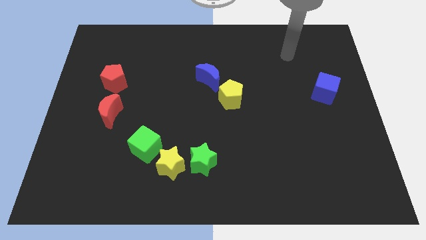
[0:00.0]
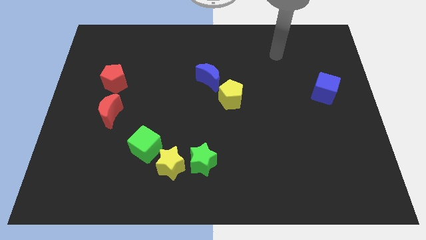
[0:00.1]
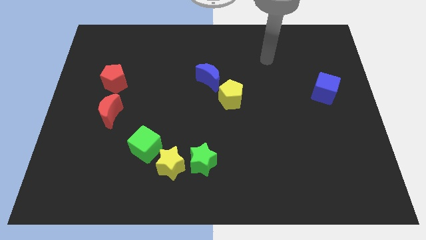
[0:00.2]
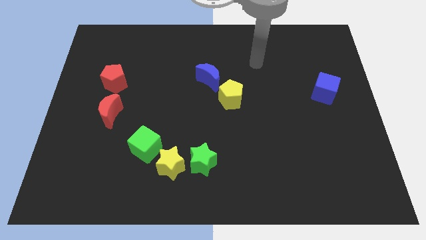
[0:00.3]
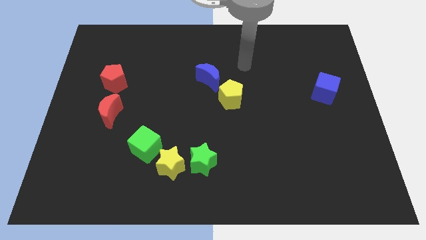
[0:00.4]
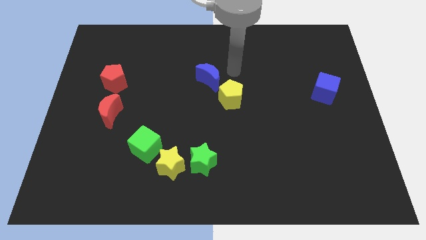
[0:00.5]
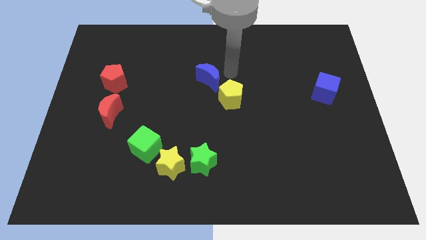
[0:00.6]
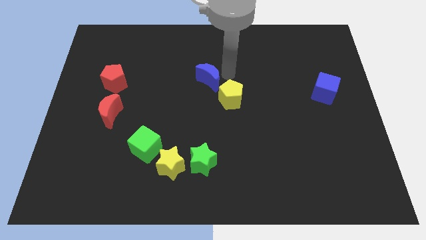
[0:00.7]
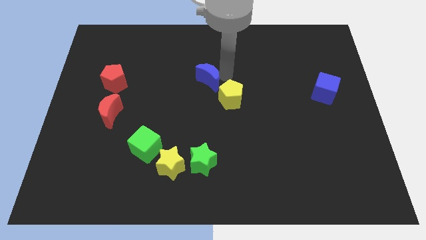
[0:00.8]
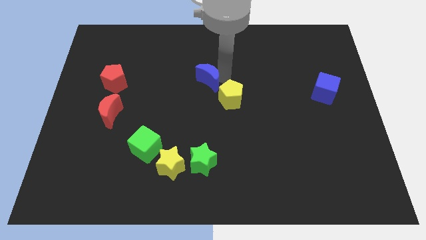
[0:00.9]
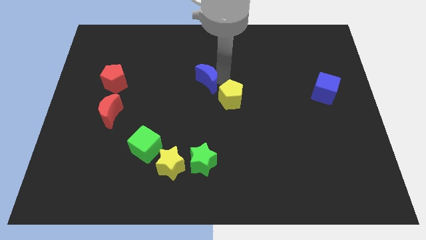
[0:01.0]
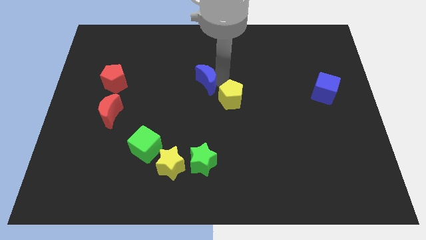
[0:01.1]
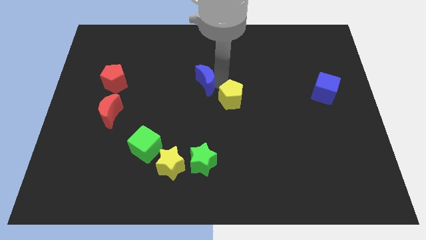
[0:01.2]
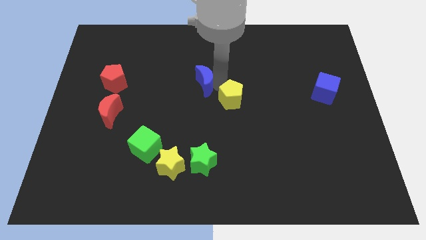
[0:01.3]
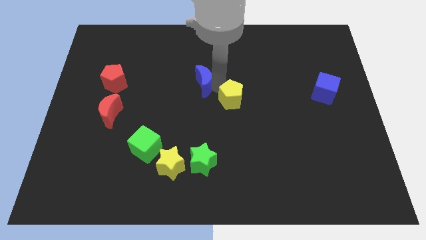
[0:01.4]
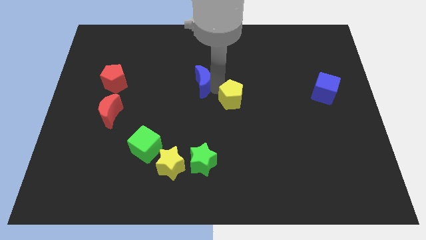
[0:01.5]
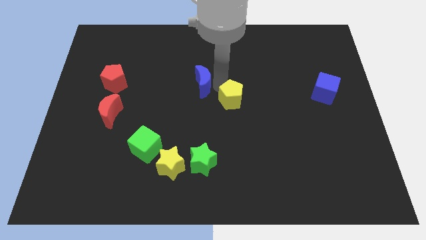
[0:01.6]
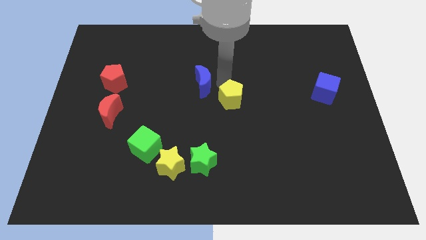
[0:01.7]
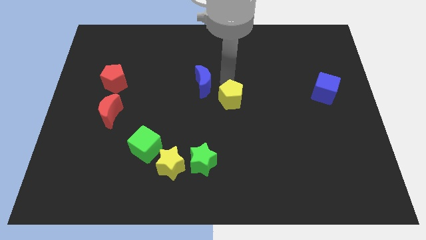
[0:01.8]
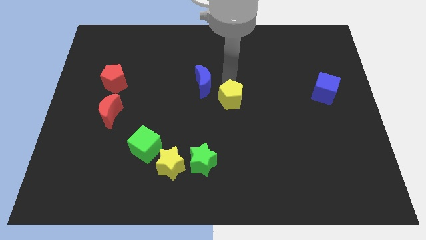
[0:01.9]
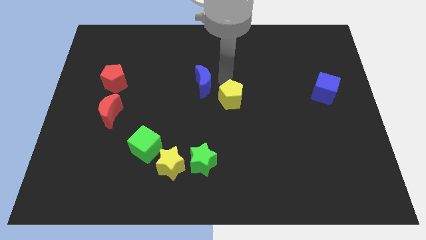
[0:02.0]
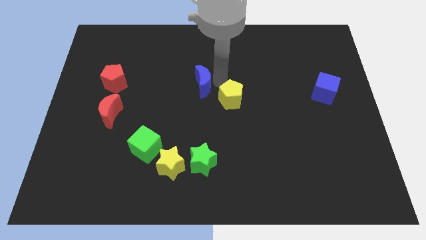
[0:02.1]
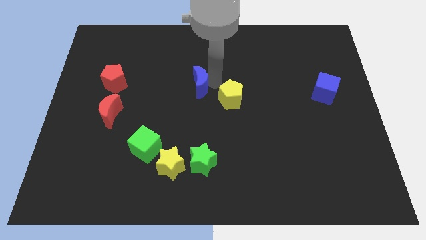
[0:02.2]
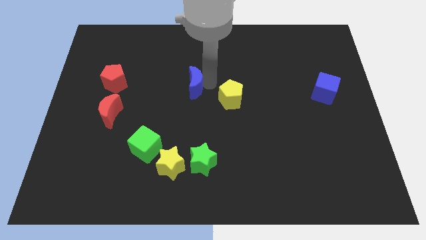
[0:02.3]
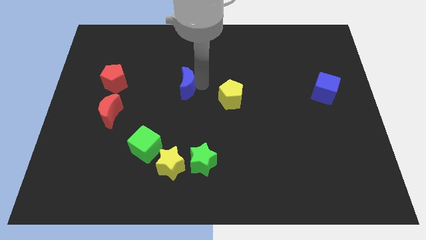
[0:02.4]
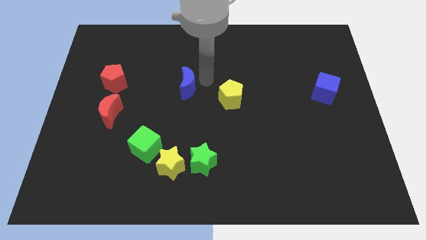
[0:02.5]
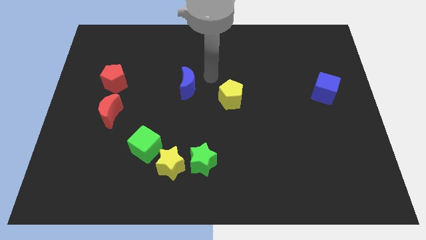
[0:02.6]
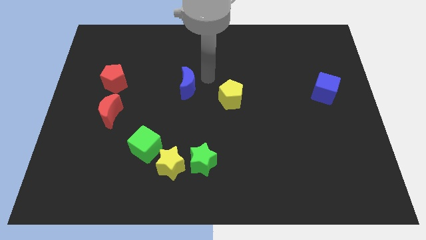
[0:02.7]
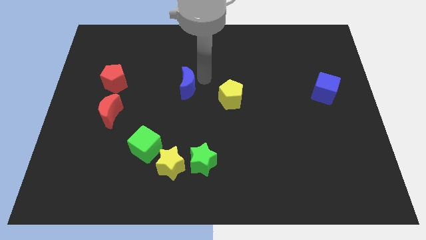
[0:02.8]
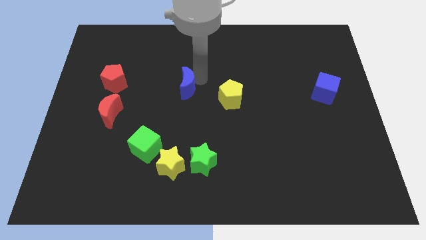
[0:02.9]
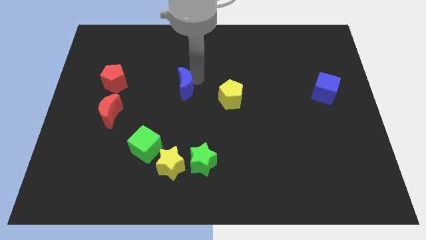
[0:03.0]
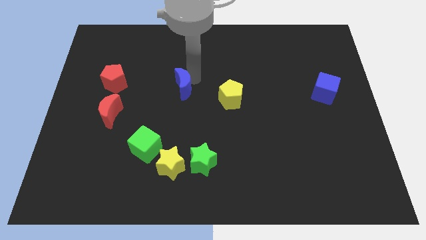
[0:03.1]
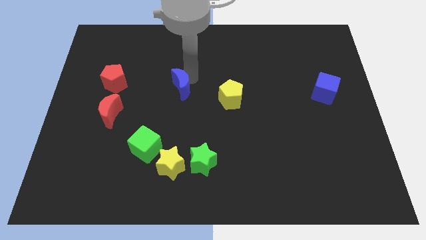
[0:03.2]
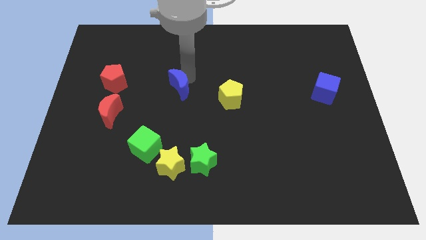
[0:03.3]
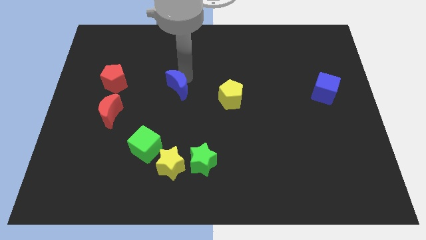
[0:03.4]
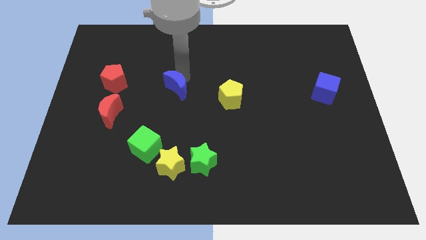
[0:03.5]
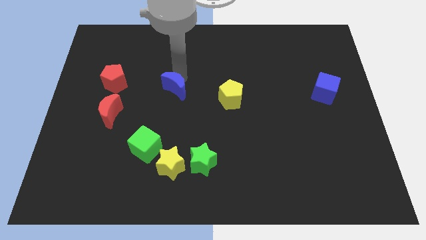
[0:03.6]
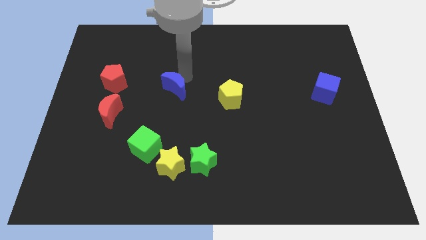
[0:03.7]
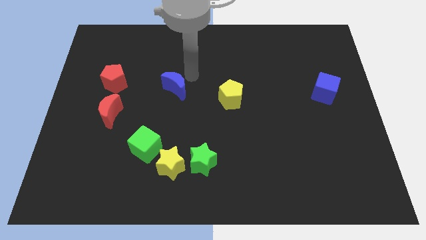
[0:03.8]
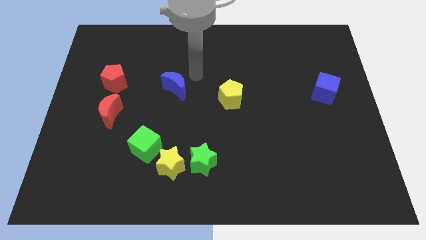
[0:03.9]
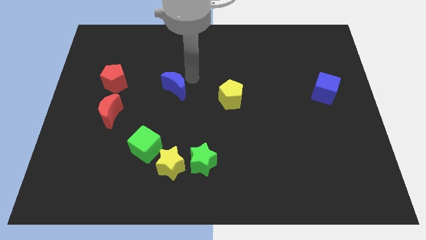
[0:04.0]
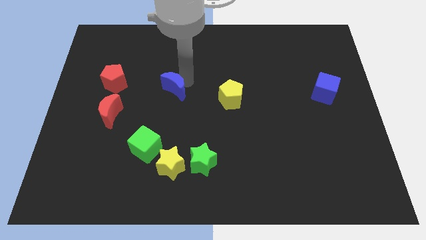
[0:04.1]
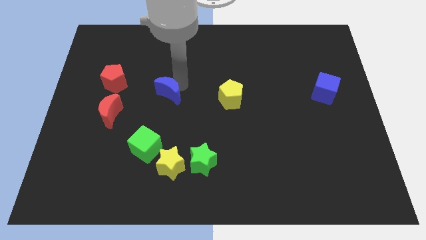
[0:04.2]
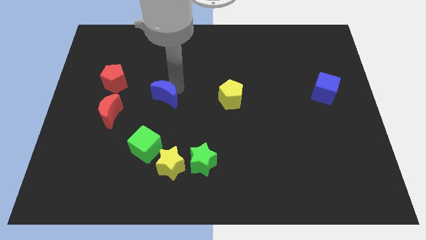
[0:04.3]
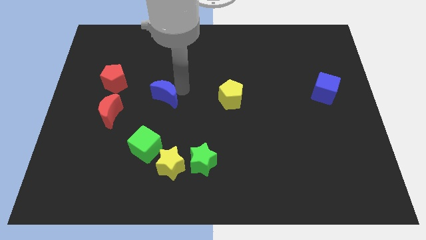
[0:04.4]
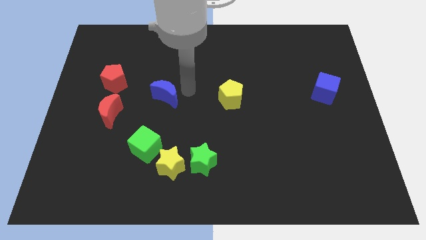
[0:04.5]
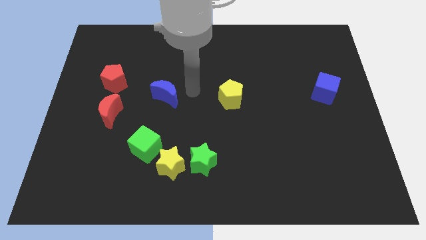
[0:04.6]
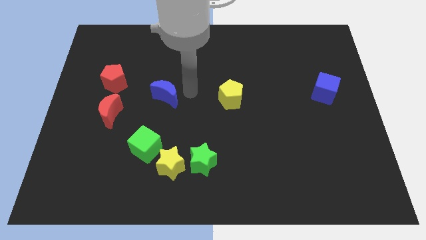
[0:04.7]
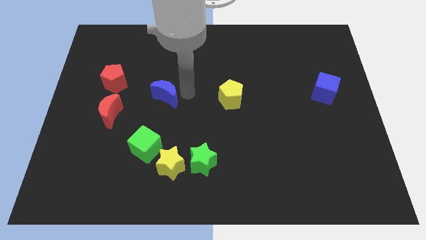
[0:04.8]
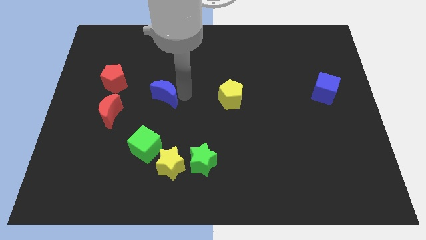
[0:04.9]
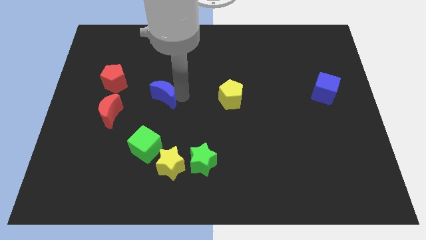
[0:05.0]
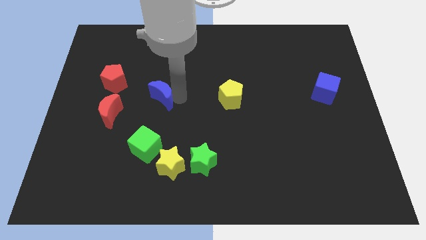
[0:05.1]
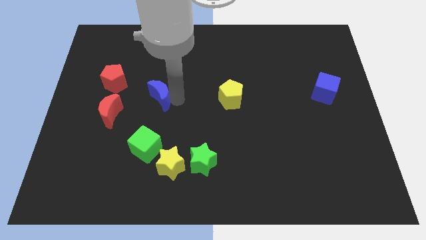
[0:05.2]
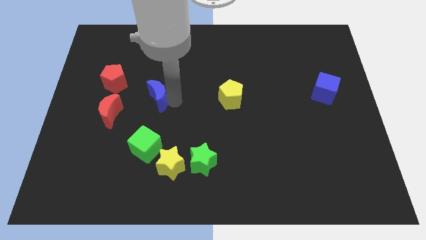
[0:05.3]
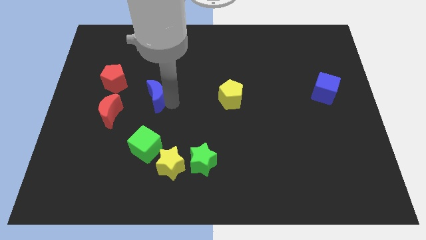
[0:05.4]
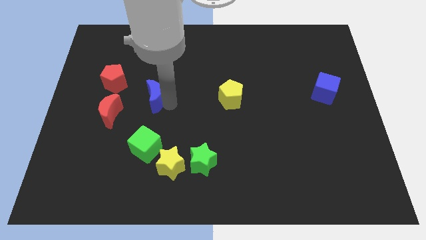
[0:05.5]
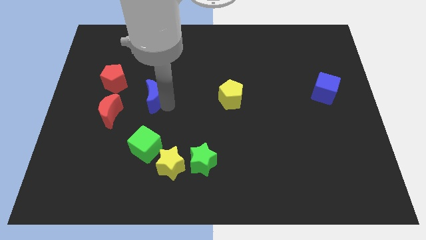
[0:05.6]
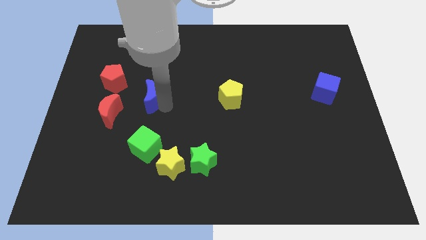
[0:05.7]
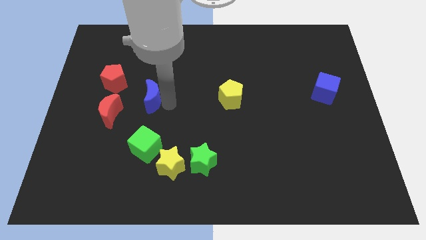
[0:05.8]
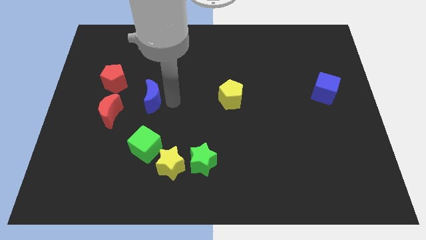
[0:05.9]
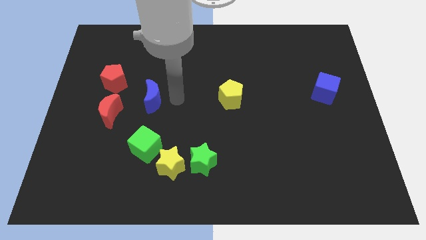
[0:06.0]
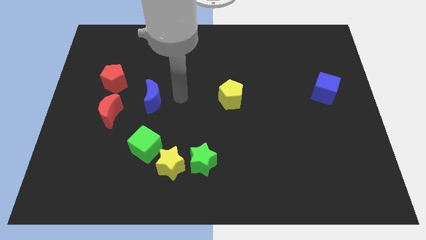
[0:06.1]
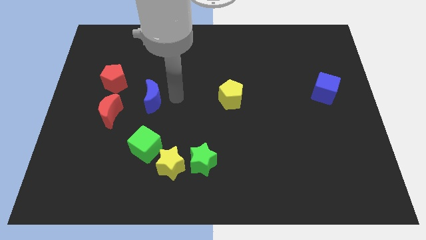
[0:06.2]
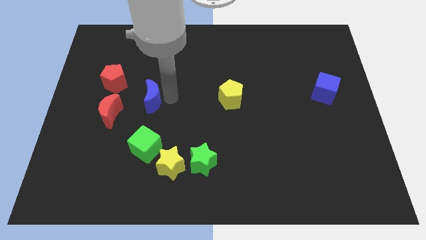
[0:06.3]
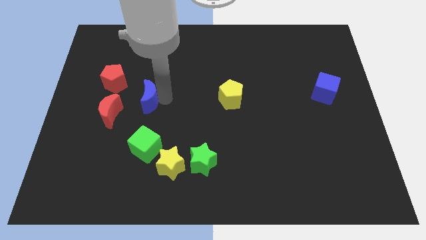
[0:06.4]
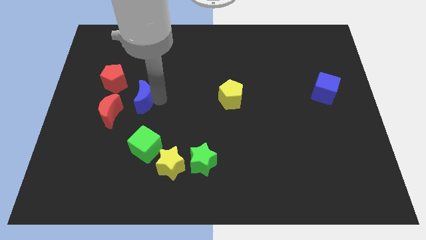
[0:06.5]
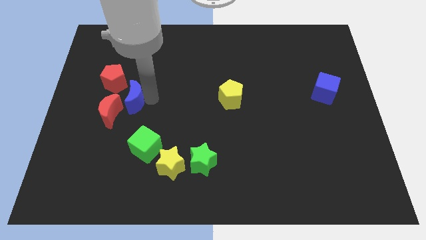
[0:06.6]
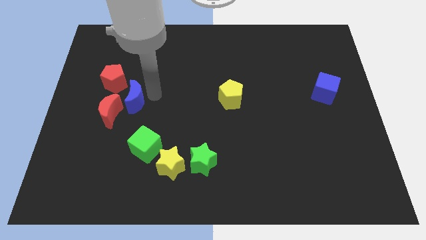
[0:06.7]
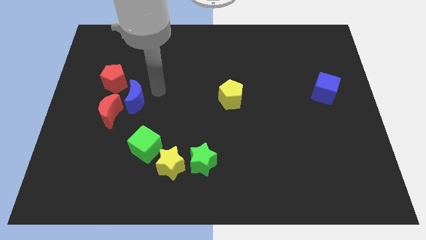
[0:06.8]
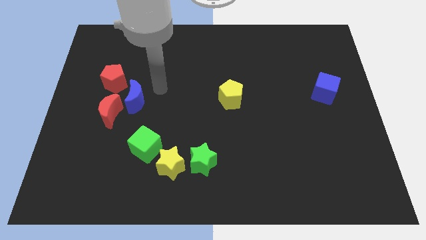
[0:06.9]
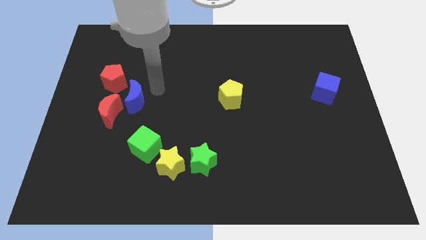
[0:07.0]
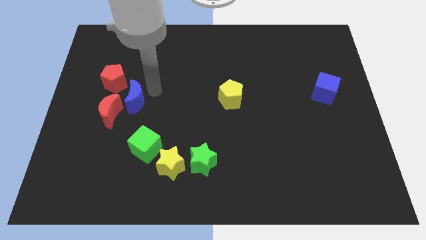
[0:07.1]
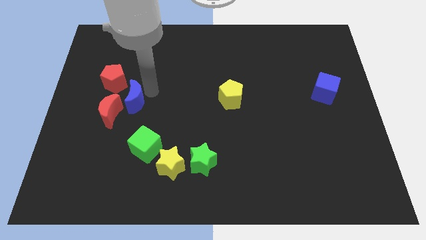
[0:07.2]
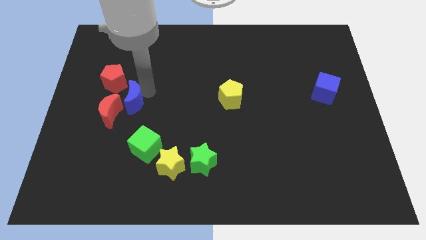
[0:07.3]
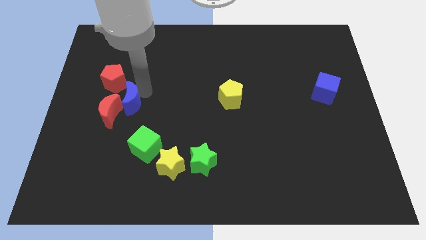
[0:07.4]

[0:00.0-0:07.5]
push the blue moon to the red moon
